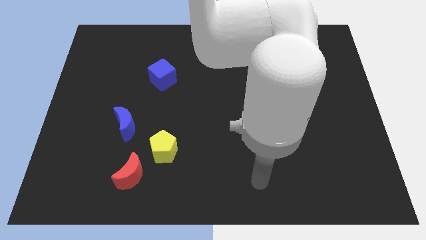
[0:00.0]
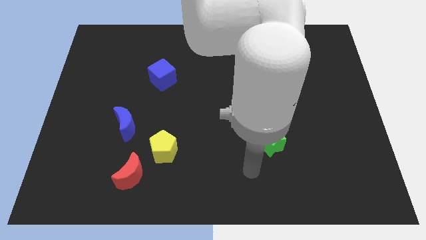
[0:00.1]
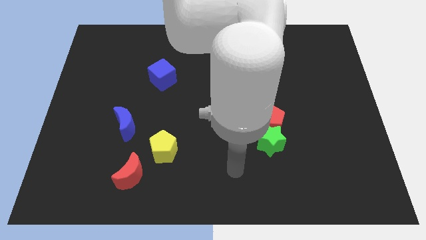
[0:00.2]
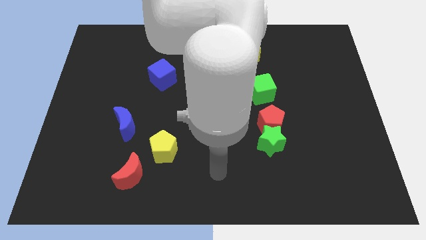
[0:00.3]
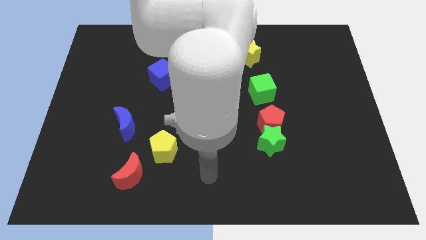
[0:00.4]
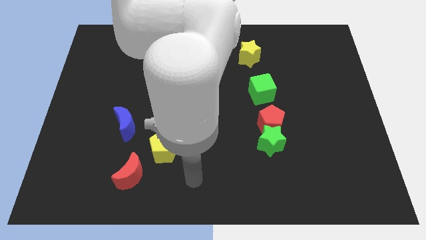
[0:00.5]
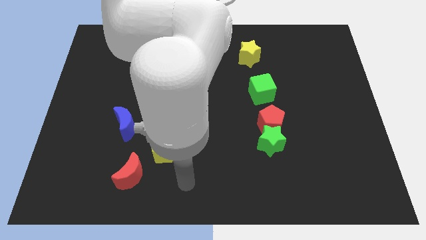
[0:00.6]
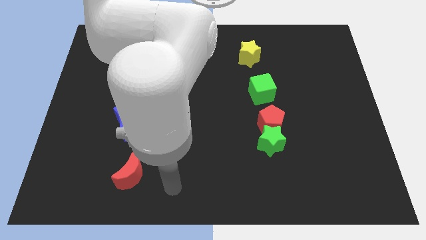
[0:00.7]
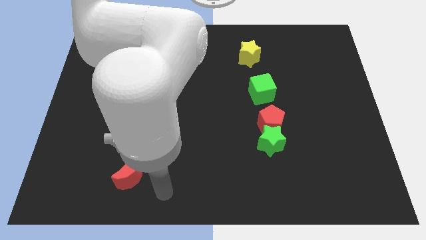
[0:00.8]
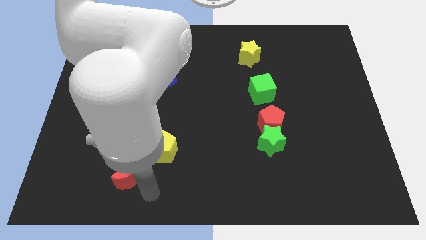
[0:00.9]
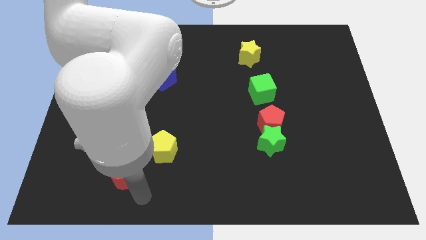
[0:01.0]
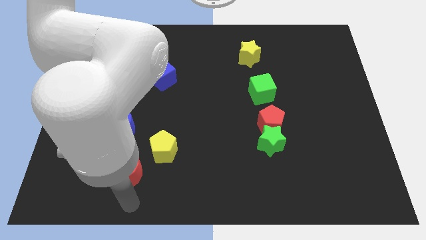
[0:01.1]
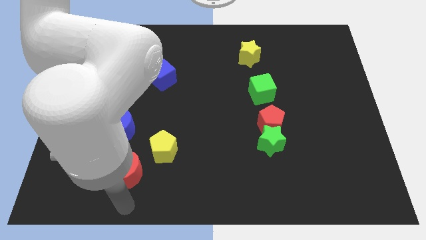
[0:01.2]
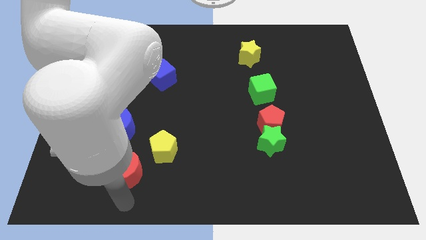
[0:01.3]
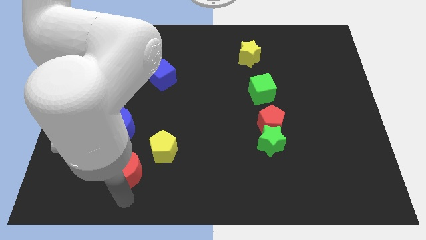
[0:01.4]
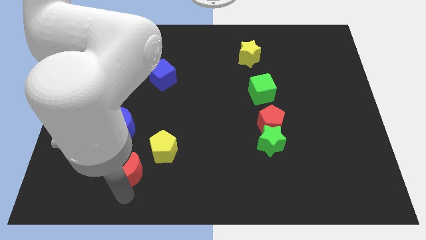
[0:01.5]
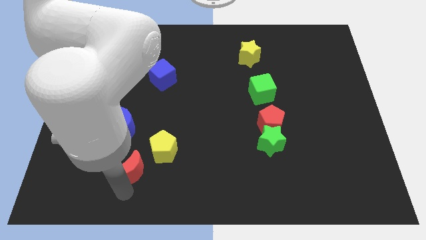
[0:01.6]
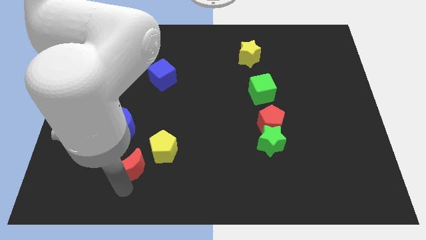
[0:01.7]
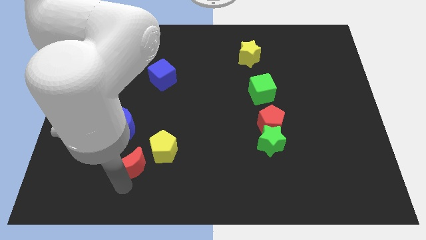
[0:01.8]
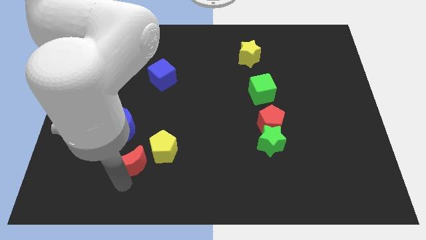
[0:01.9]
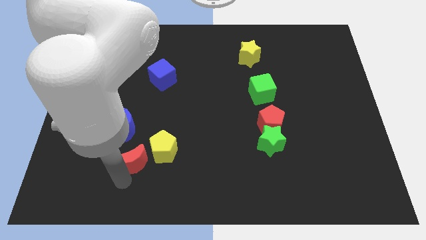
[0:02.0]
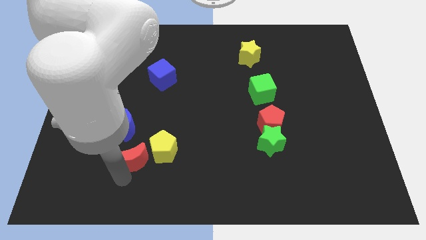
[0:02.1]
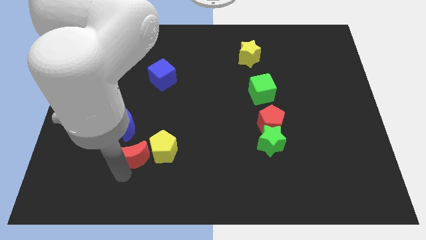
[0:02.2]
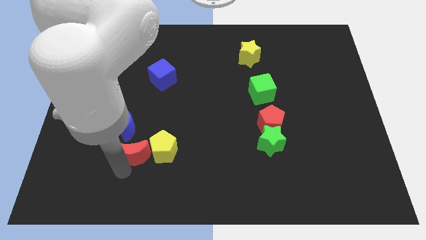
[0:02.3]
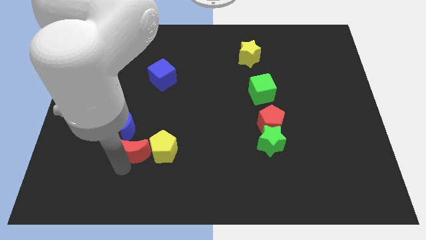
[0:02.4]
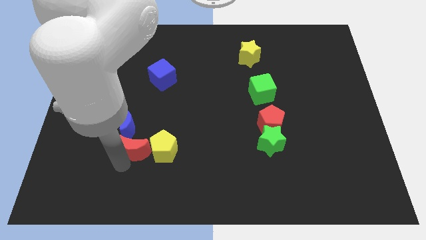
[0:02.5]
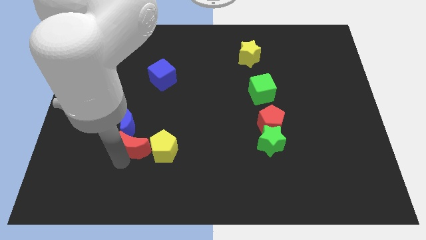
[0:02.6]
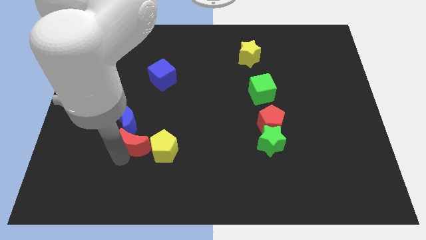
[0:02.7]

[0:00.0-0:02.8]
slightly slide the red moon up

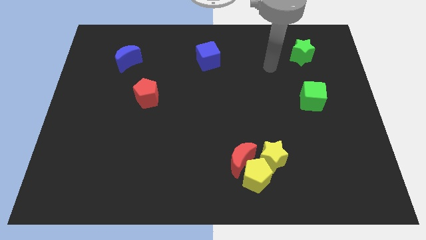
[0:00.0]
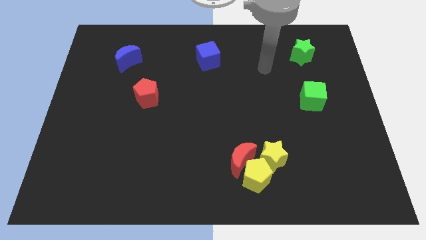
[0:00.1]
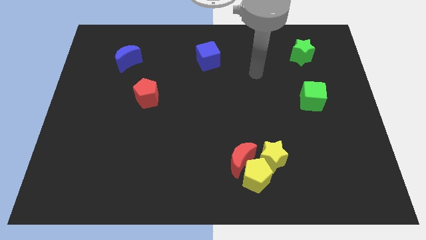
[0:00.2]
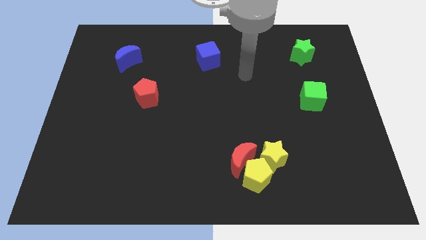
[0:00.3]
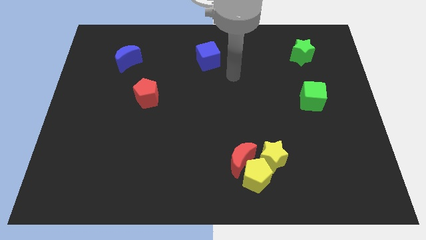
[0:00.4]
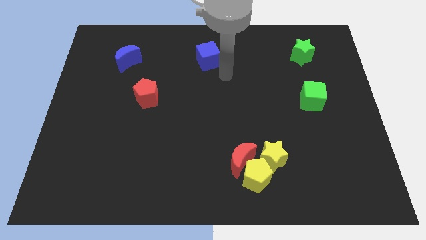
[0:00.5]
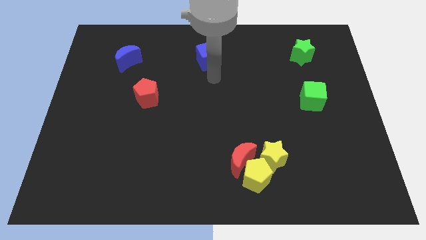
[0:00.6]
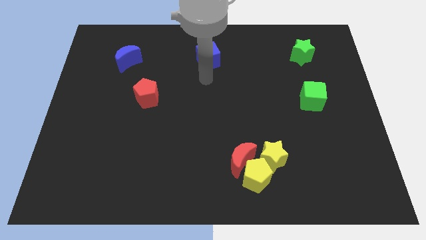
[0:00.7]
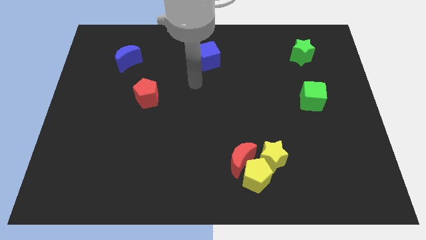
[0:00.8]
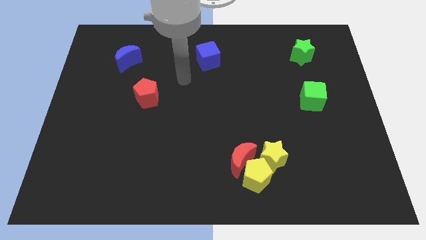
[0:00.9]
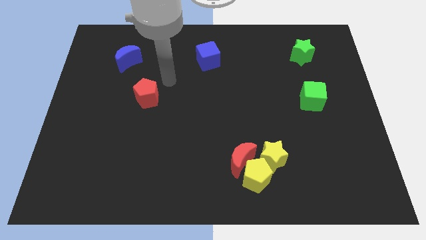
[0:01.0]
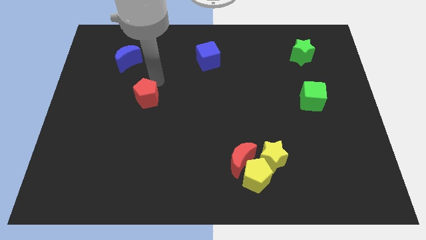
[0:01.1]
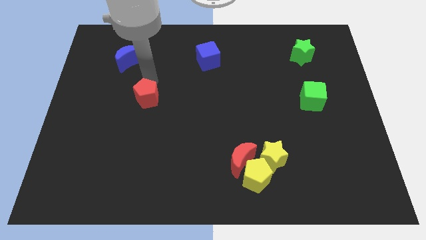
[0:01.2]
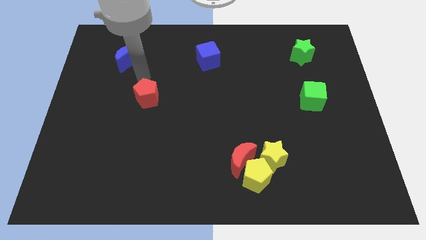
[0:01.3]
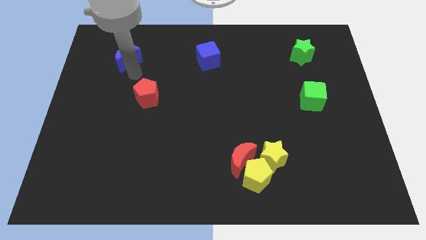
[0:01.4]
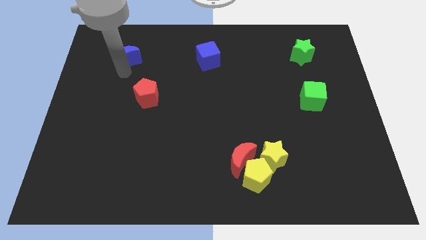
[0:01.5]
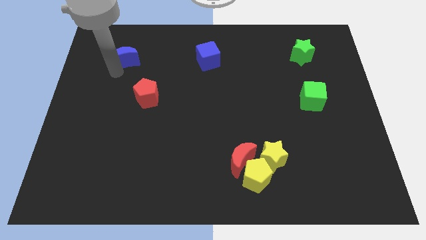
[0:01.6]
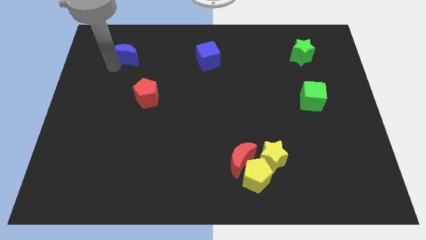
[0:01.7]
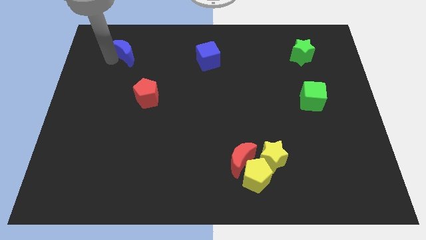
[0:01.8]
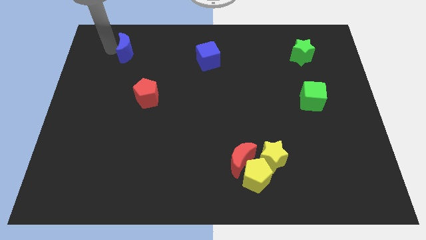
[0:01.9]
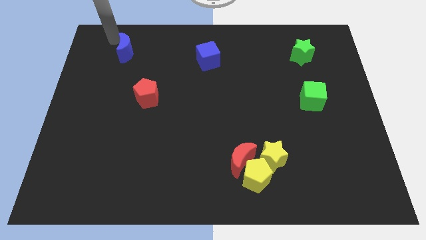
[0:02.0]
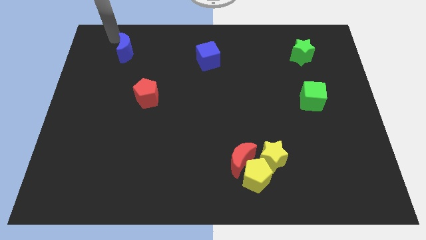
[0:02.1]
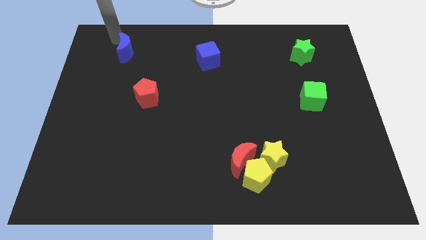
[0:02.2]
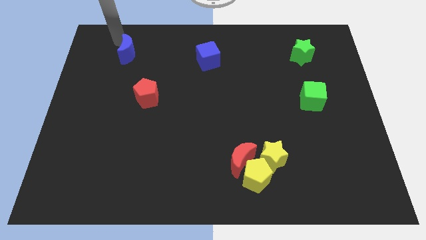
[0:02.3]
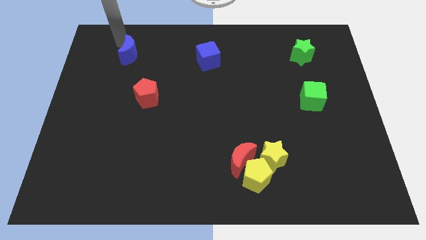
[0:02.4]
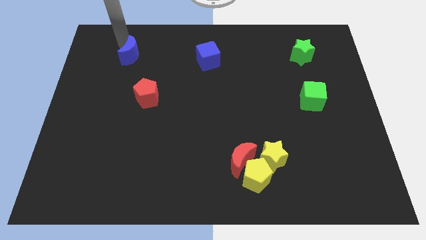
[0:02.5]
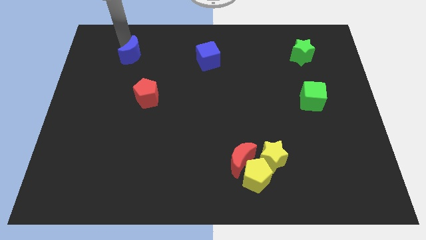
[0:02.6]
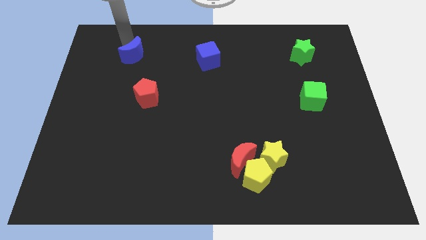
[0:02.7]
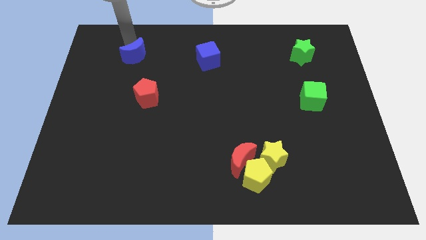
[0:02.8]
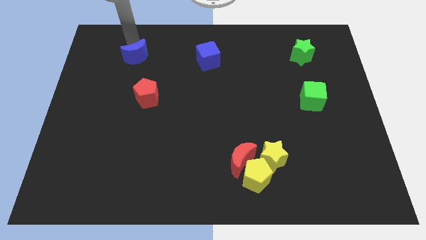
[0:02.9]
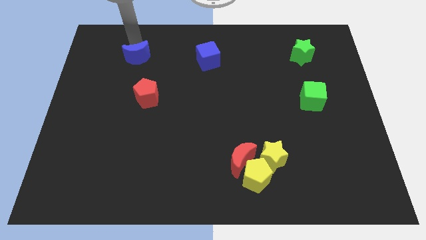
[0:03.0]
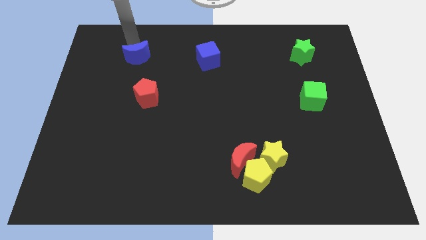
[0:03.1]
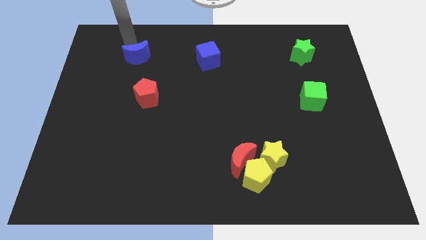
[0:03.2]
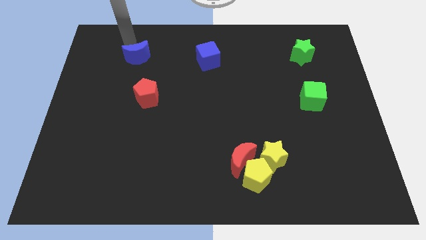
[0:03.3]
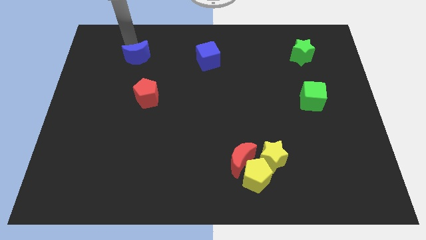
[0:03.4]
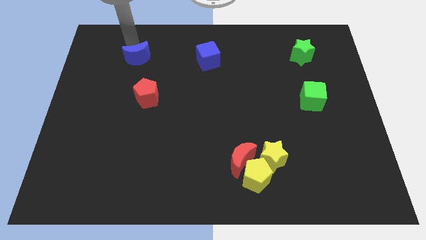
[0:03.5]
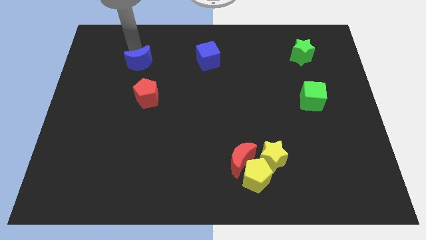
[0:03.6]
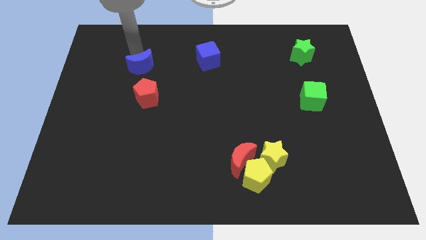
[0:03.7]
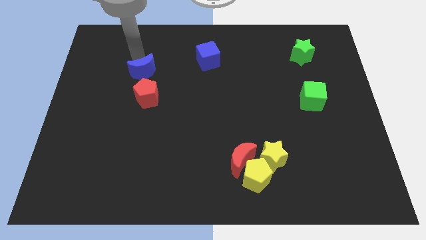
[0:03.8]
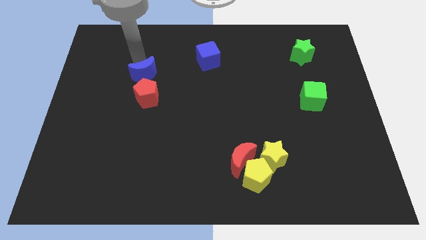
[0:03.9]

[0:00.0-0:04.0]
slightly slide the blue moon downwards and to the right diagonally

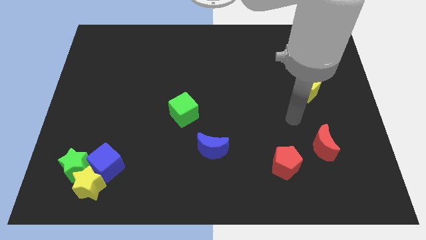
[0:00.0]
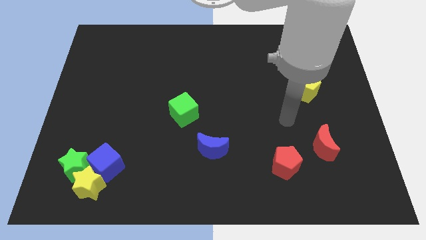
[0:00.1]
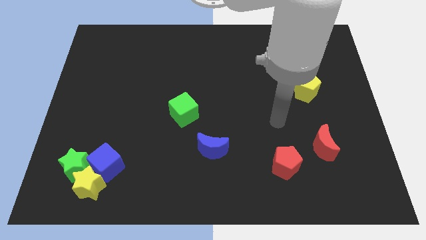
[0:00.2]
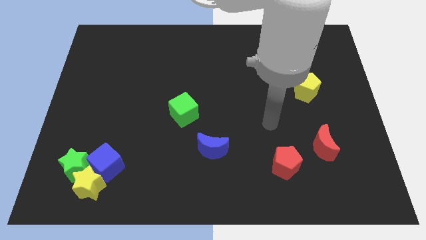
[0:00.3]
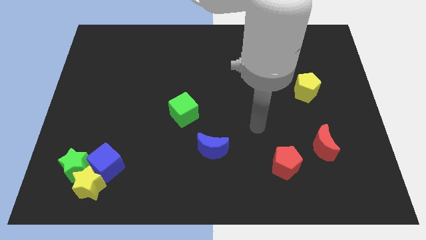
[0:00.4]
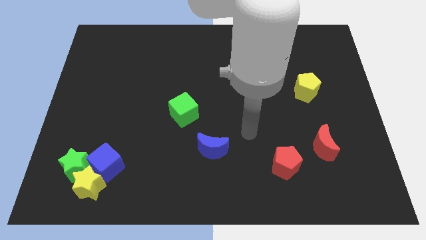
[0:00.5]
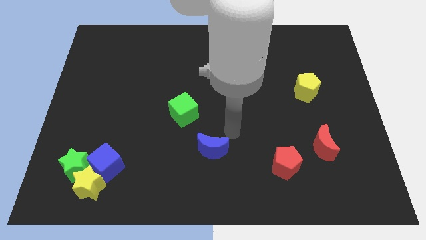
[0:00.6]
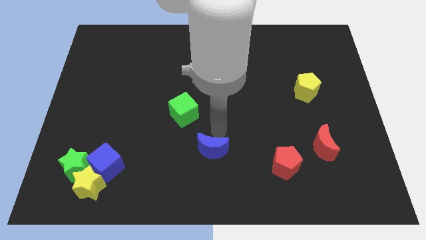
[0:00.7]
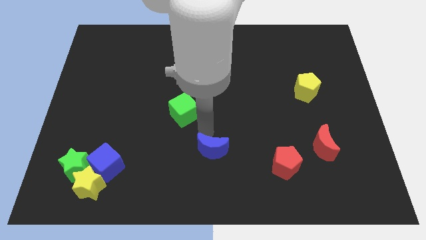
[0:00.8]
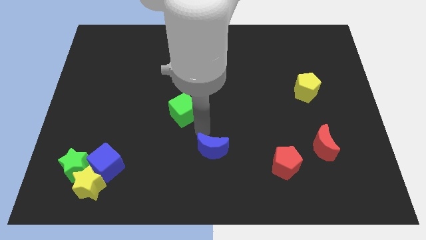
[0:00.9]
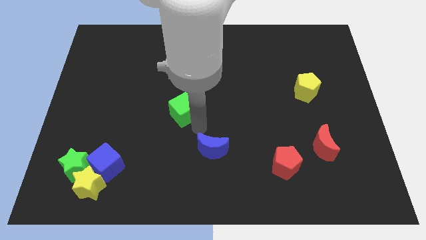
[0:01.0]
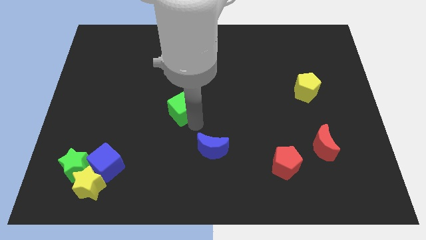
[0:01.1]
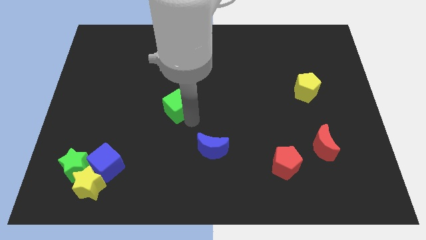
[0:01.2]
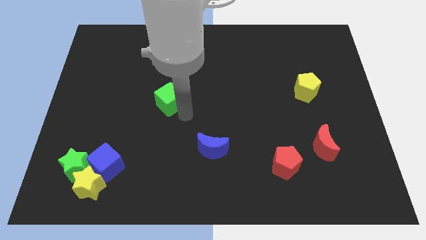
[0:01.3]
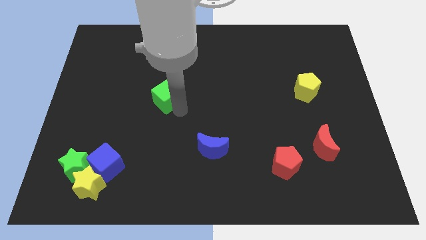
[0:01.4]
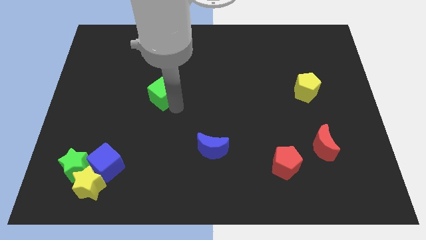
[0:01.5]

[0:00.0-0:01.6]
slide the green cube somewhat up and to the left
